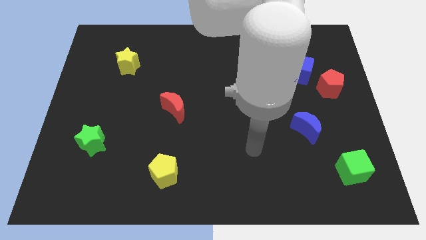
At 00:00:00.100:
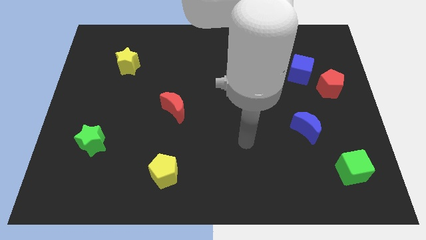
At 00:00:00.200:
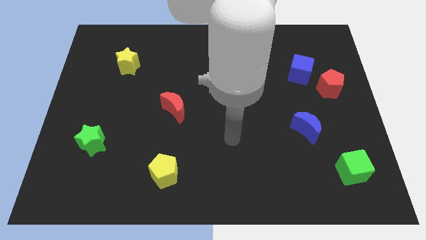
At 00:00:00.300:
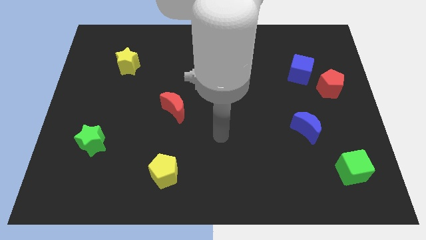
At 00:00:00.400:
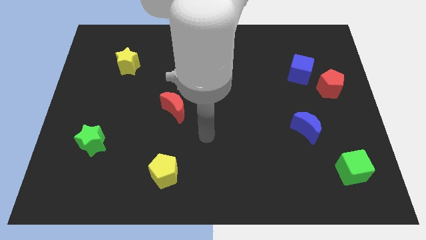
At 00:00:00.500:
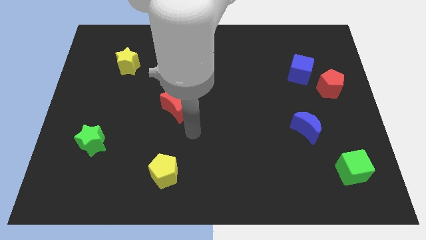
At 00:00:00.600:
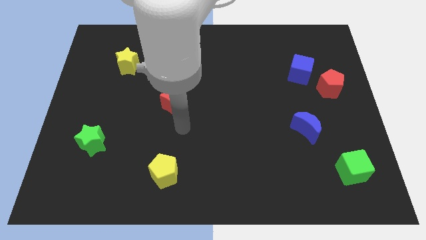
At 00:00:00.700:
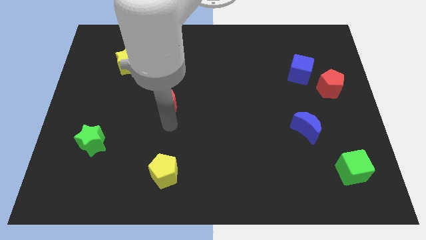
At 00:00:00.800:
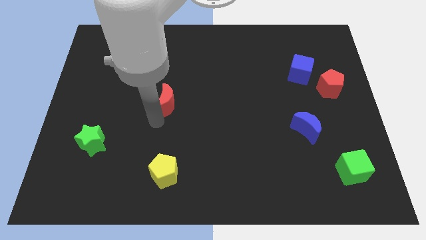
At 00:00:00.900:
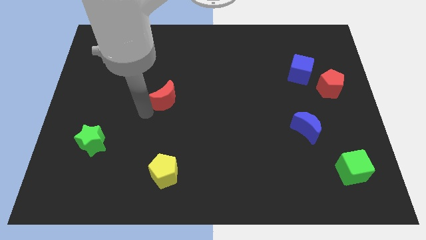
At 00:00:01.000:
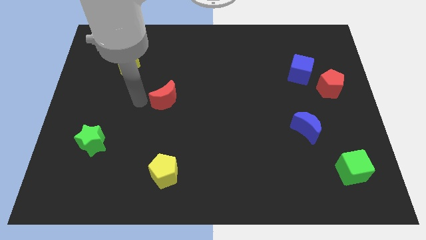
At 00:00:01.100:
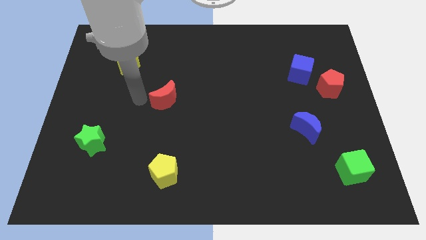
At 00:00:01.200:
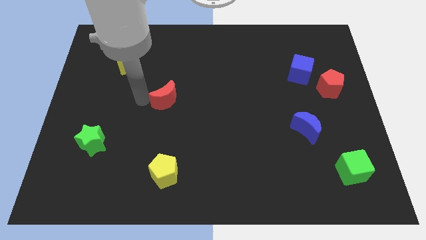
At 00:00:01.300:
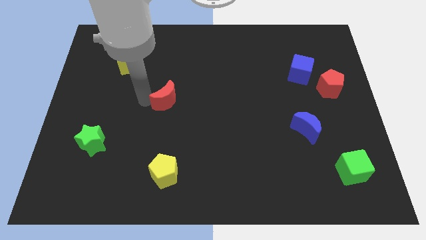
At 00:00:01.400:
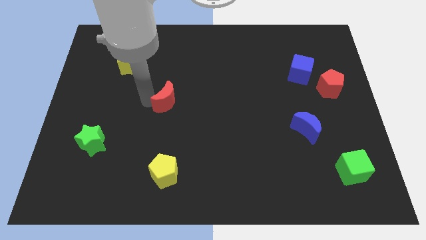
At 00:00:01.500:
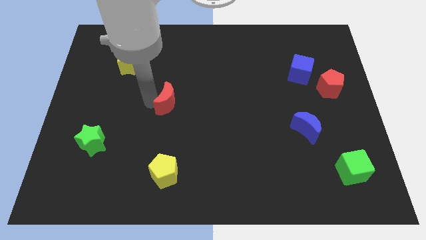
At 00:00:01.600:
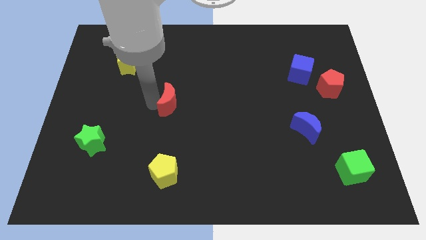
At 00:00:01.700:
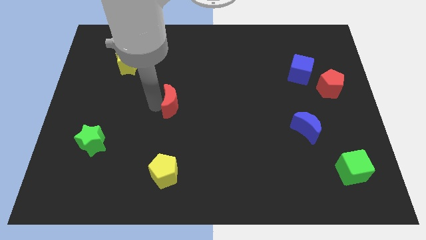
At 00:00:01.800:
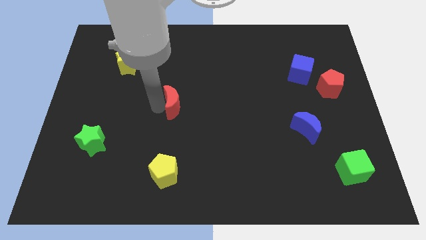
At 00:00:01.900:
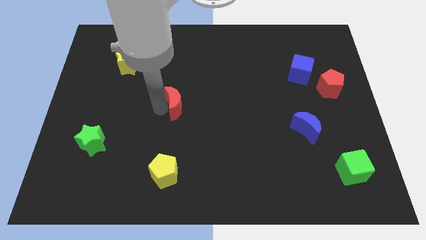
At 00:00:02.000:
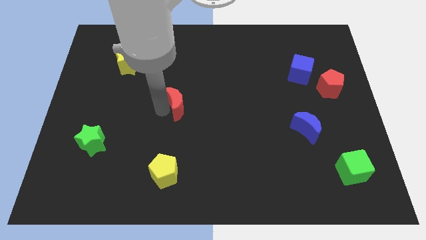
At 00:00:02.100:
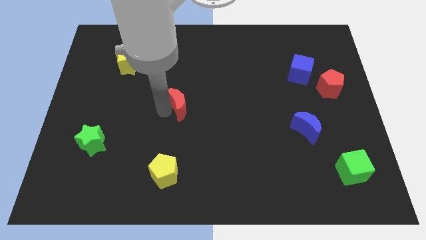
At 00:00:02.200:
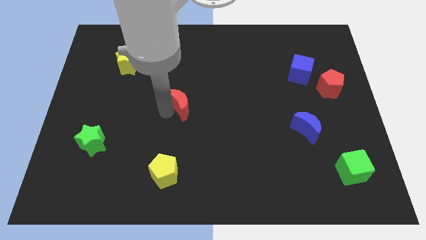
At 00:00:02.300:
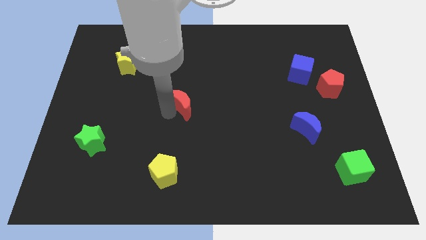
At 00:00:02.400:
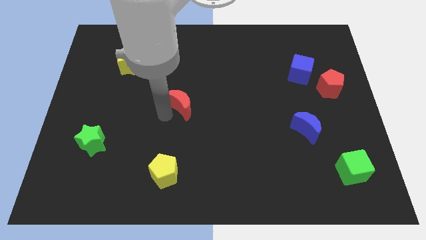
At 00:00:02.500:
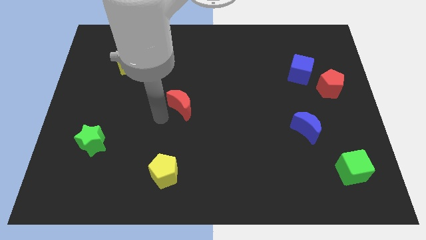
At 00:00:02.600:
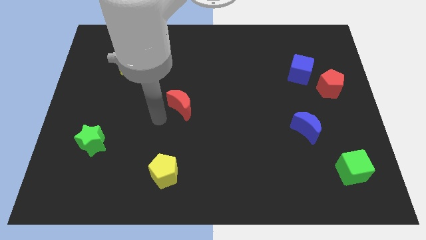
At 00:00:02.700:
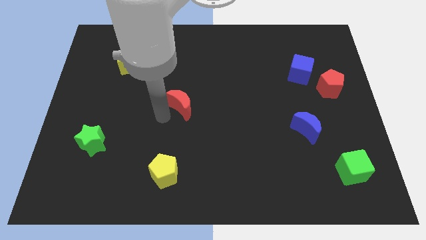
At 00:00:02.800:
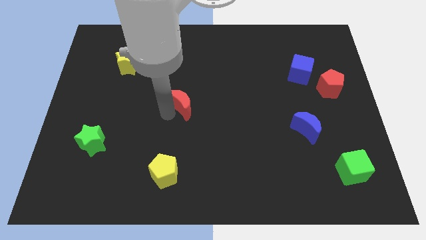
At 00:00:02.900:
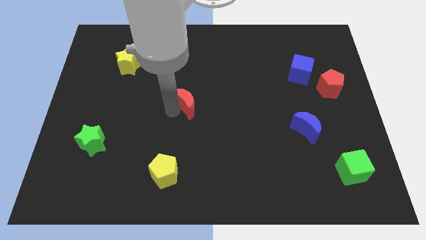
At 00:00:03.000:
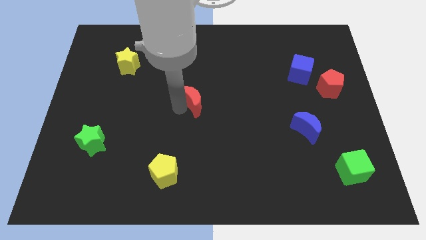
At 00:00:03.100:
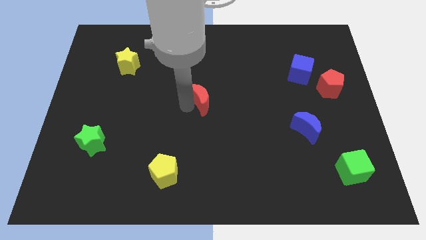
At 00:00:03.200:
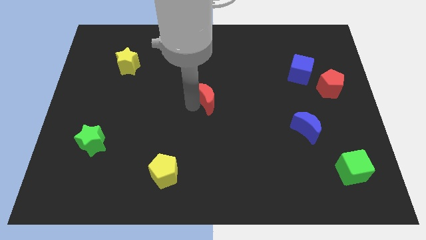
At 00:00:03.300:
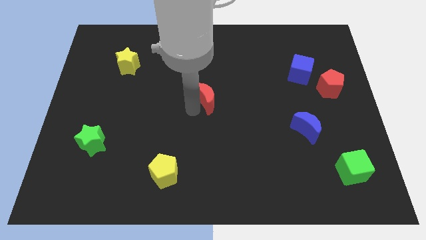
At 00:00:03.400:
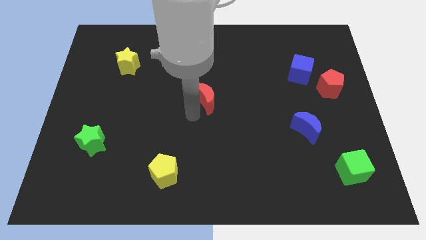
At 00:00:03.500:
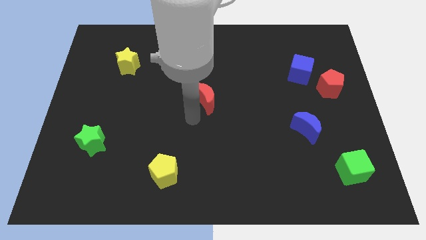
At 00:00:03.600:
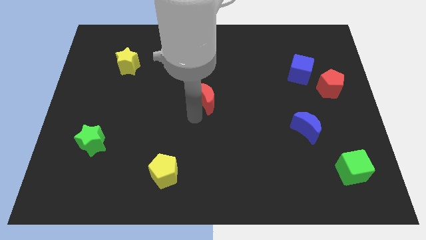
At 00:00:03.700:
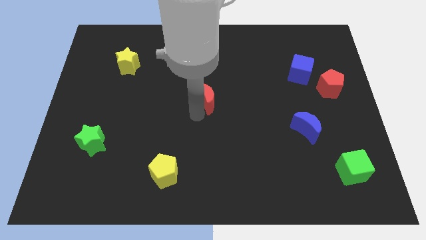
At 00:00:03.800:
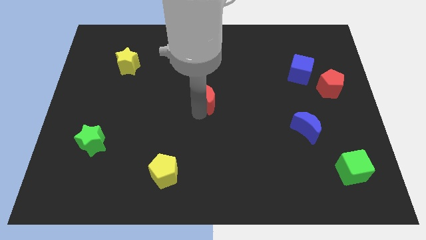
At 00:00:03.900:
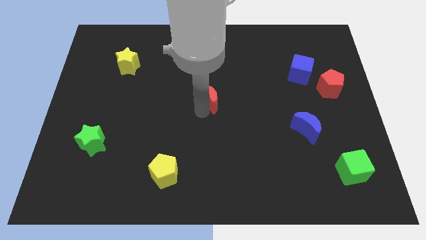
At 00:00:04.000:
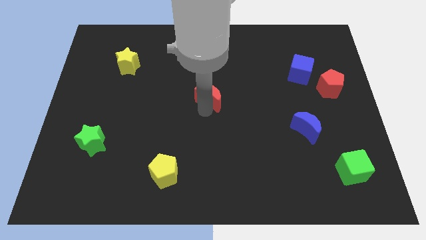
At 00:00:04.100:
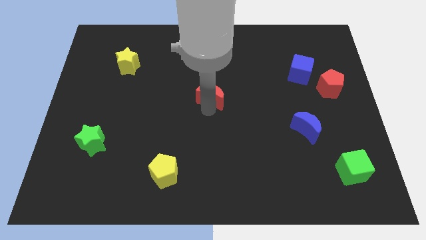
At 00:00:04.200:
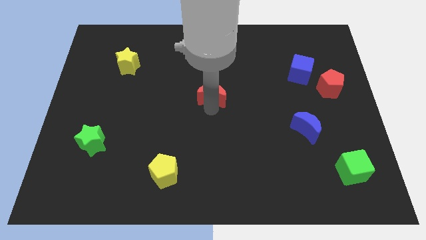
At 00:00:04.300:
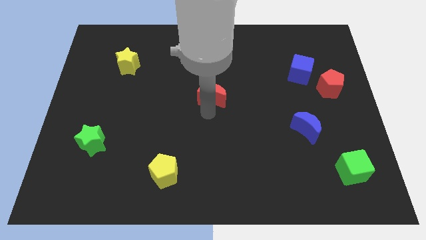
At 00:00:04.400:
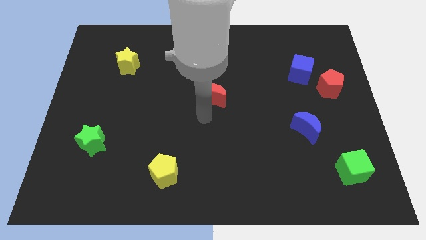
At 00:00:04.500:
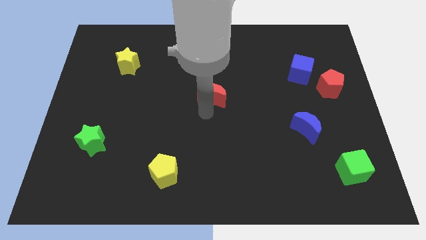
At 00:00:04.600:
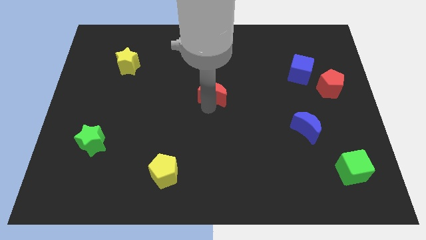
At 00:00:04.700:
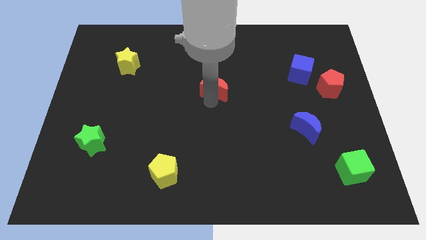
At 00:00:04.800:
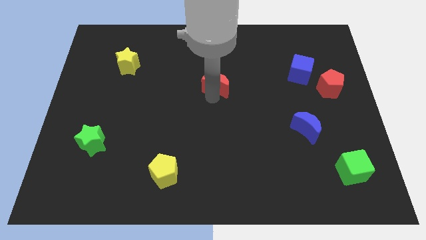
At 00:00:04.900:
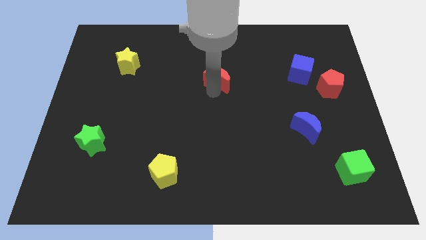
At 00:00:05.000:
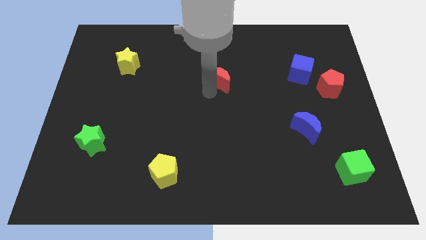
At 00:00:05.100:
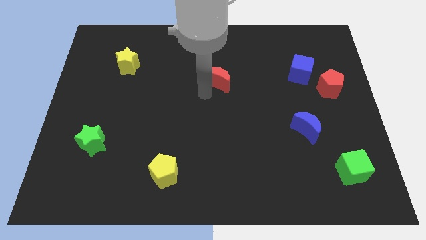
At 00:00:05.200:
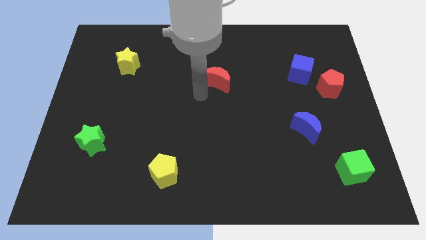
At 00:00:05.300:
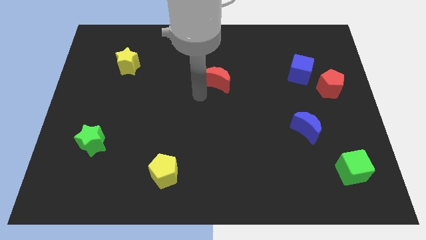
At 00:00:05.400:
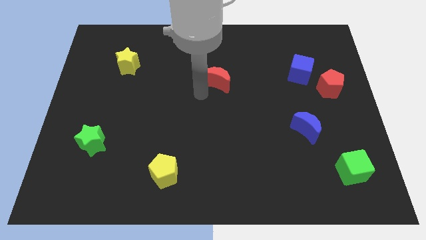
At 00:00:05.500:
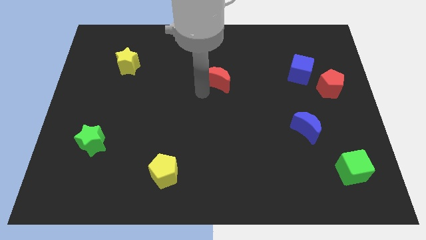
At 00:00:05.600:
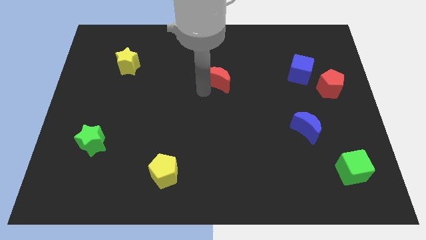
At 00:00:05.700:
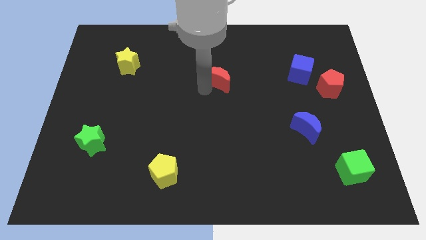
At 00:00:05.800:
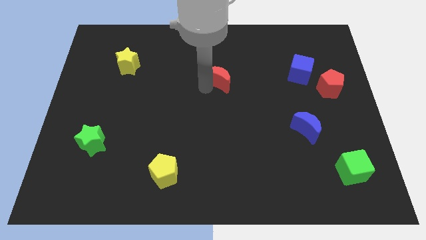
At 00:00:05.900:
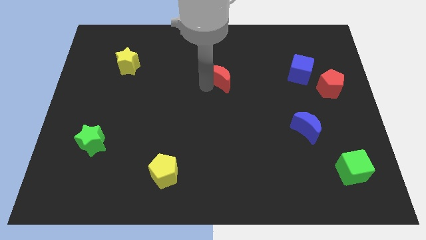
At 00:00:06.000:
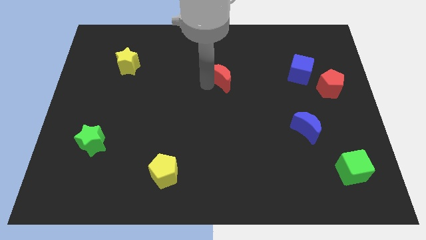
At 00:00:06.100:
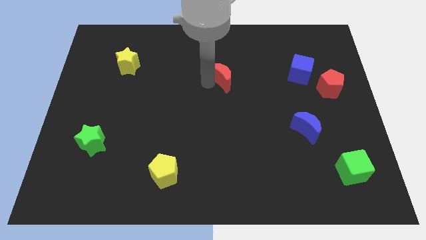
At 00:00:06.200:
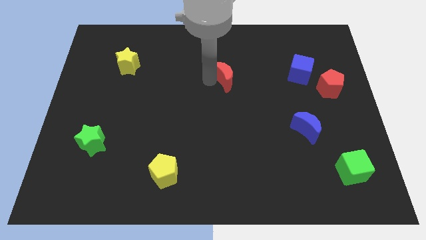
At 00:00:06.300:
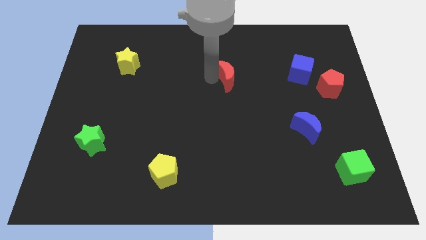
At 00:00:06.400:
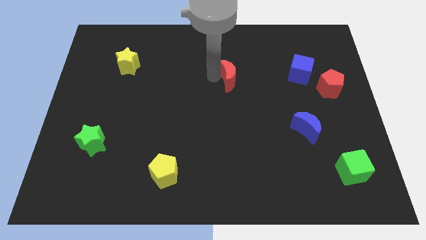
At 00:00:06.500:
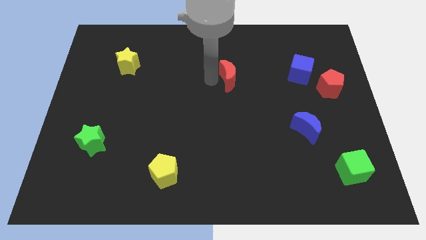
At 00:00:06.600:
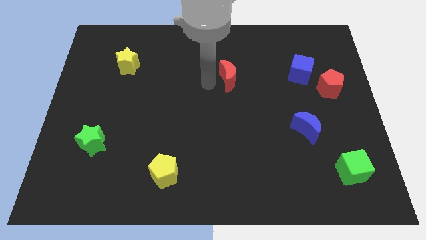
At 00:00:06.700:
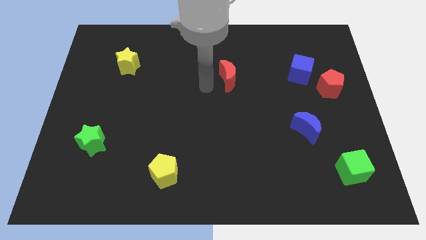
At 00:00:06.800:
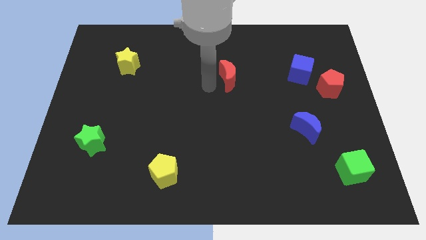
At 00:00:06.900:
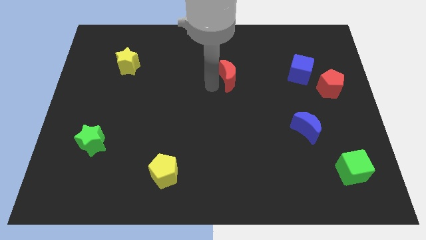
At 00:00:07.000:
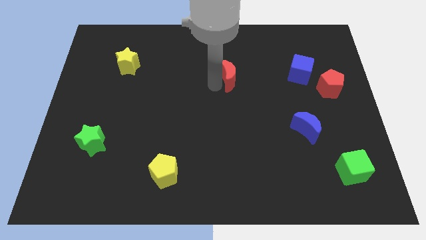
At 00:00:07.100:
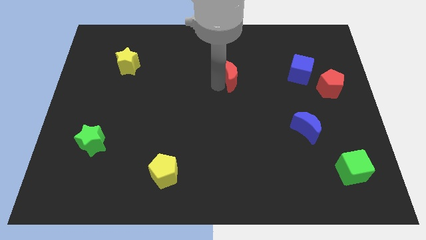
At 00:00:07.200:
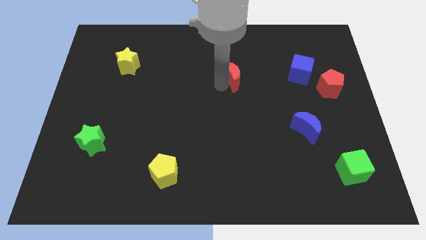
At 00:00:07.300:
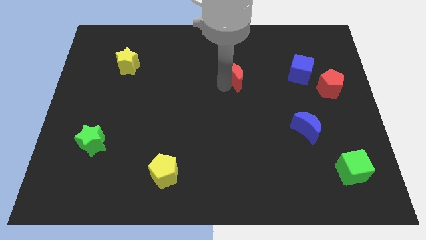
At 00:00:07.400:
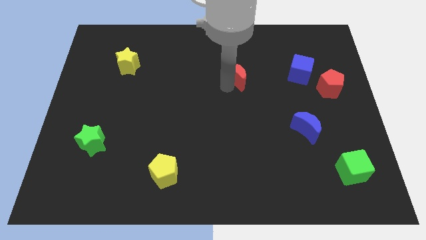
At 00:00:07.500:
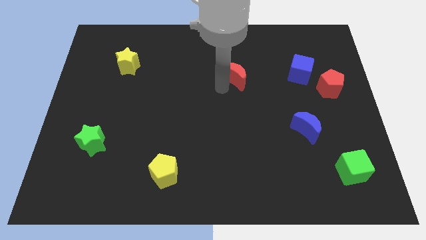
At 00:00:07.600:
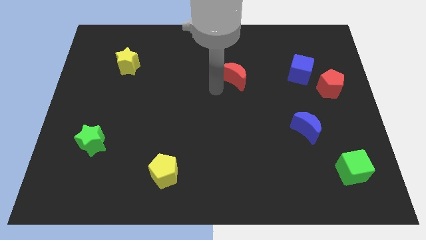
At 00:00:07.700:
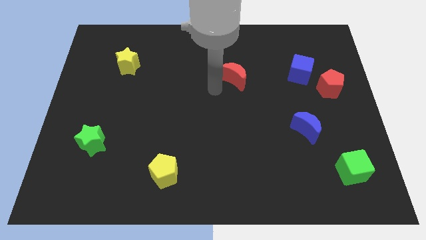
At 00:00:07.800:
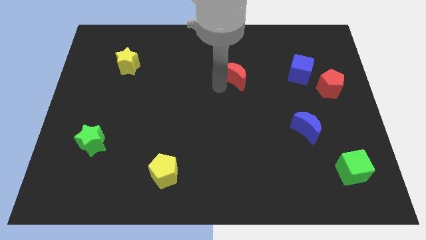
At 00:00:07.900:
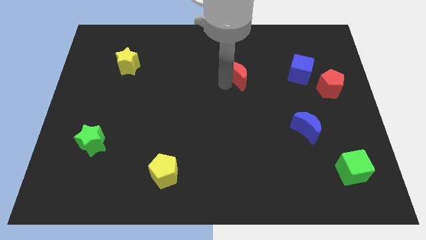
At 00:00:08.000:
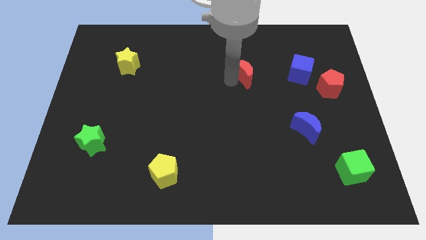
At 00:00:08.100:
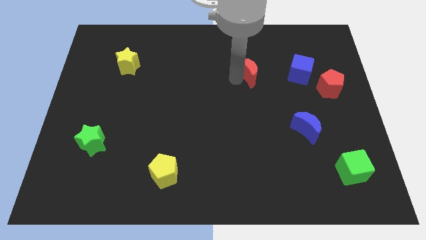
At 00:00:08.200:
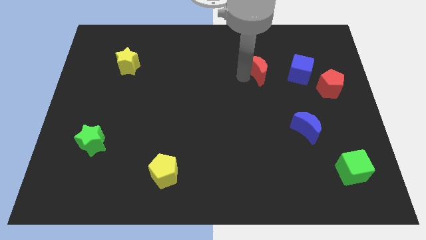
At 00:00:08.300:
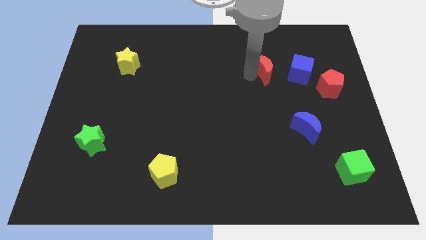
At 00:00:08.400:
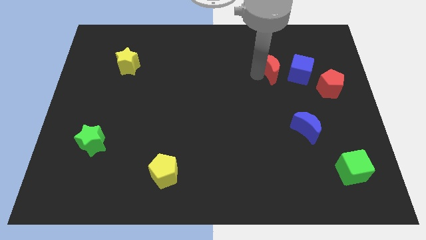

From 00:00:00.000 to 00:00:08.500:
move the red moon diagonally up and to the left of the blue cube
